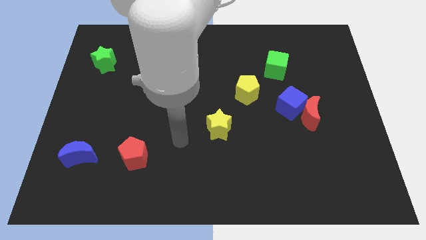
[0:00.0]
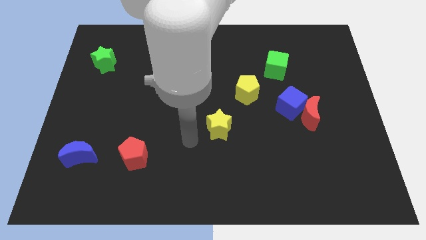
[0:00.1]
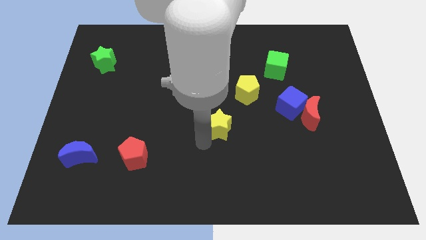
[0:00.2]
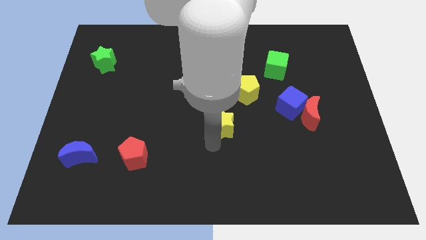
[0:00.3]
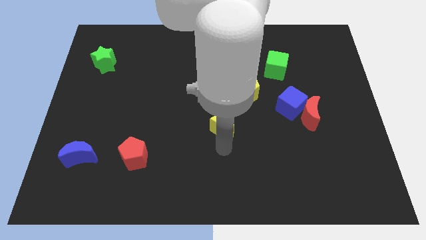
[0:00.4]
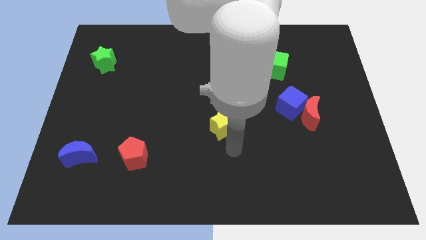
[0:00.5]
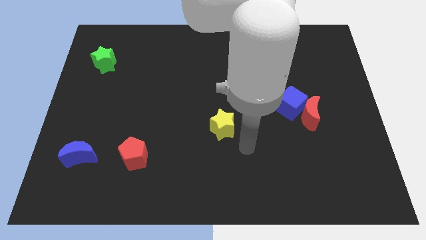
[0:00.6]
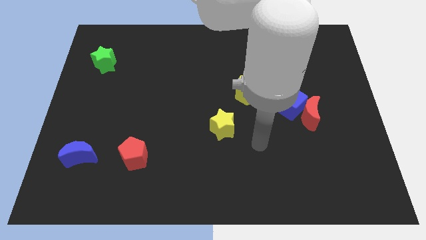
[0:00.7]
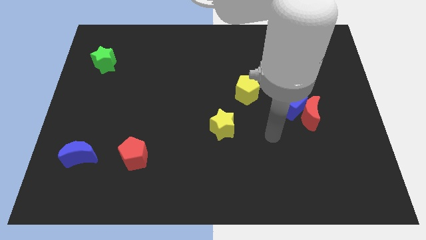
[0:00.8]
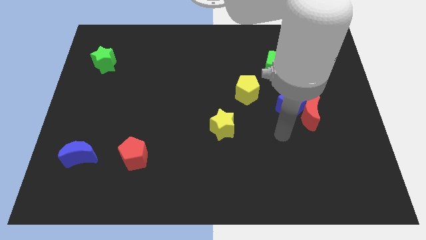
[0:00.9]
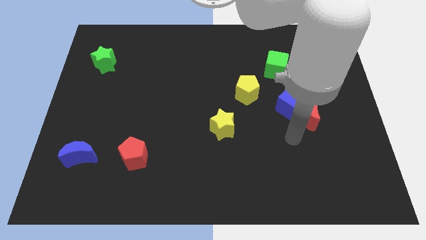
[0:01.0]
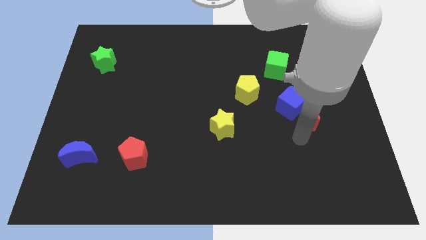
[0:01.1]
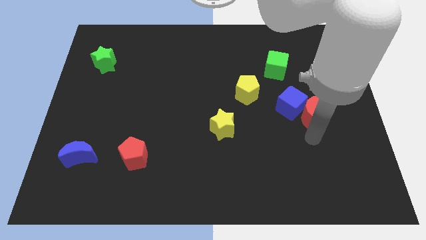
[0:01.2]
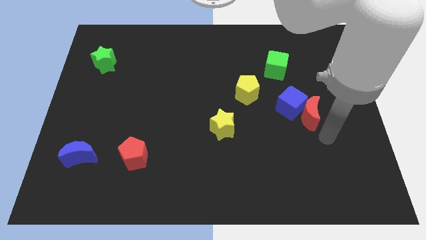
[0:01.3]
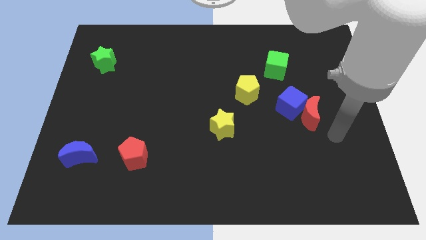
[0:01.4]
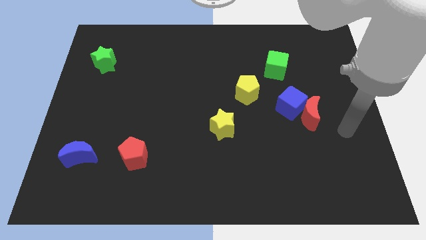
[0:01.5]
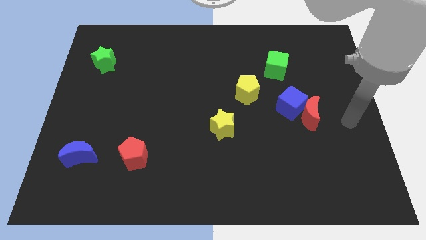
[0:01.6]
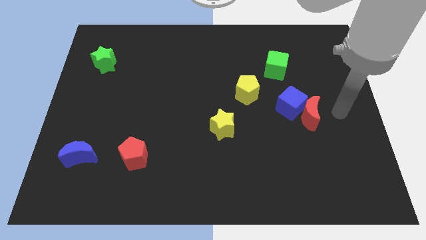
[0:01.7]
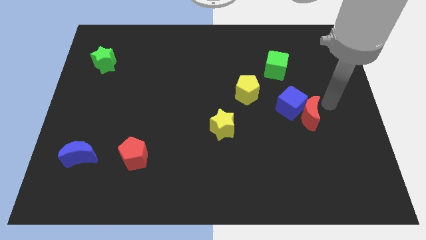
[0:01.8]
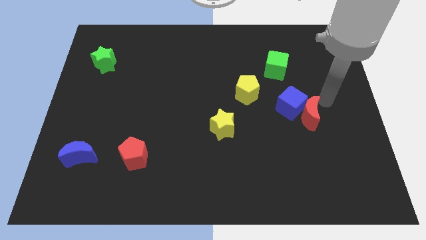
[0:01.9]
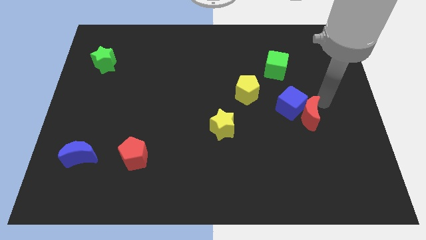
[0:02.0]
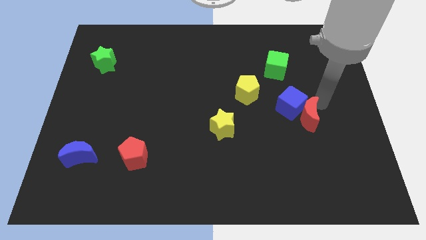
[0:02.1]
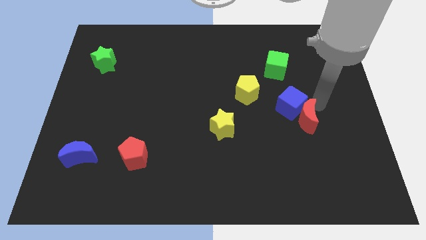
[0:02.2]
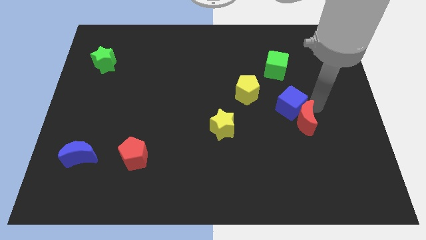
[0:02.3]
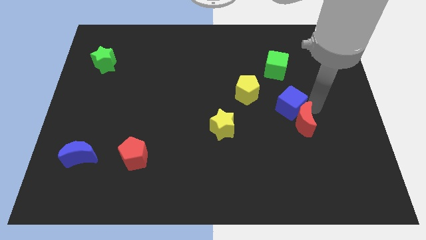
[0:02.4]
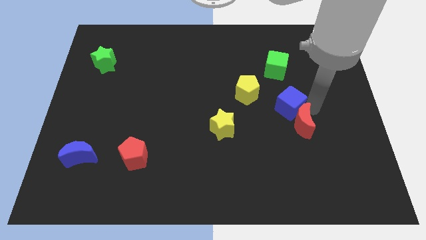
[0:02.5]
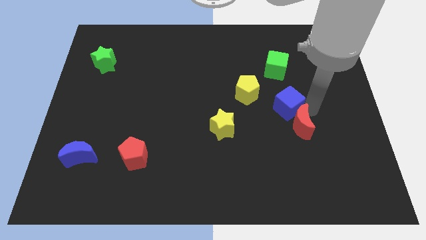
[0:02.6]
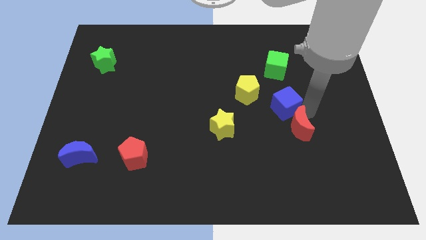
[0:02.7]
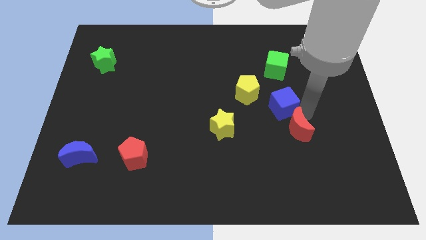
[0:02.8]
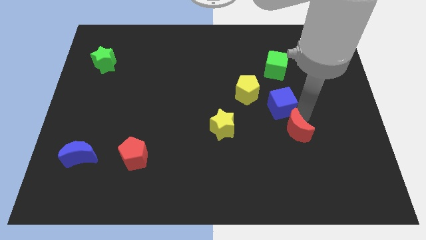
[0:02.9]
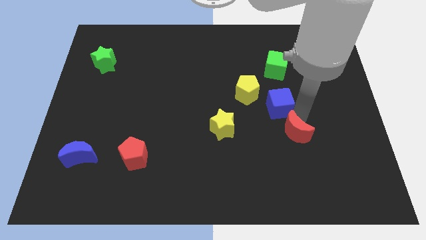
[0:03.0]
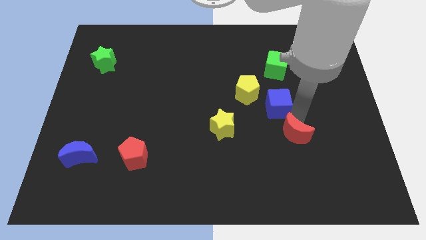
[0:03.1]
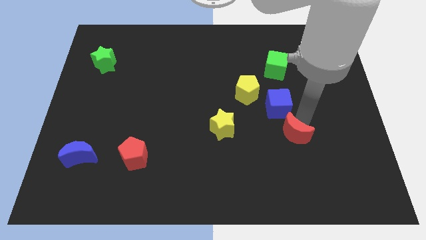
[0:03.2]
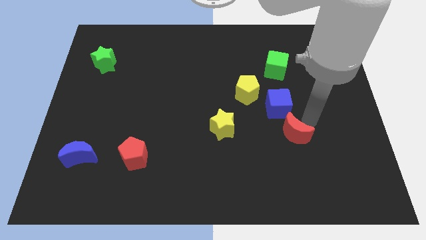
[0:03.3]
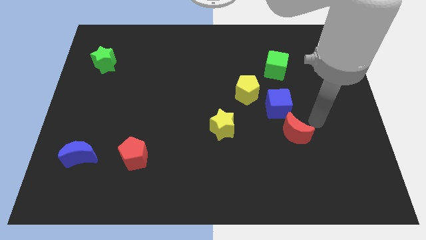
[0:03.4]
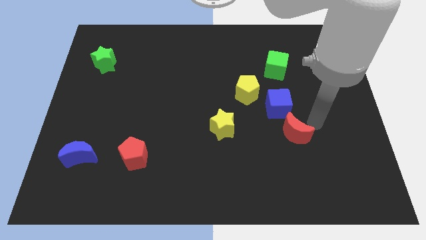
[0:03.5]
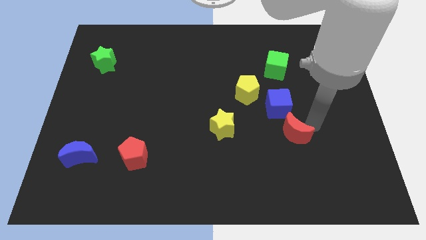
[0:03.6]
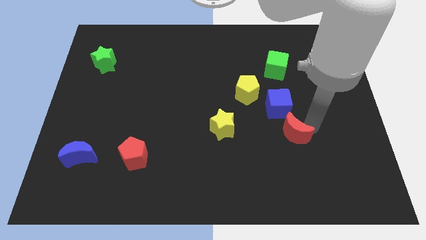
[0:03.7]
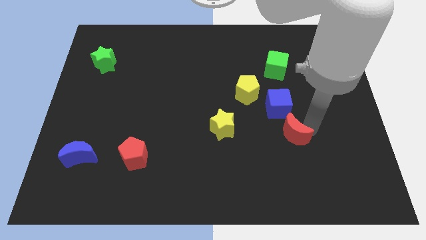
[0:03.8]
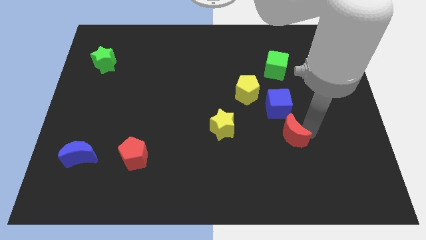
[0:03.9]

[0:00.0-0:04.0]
slide the red moon down and then left a bit

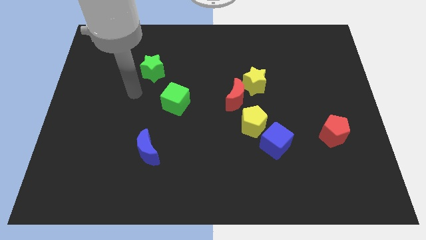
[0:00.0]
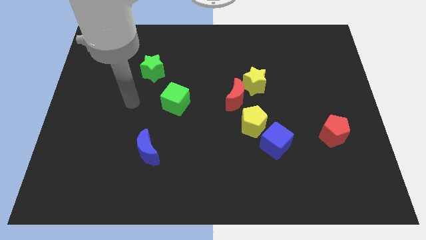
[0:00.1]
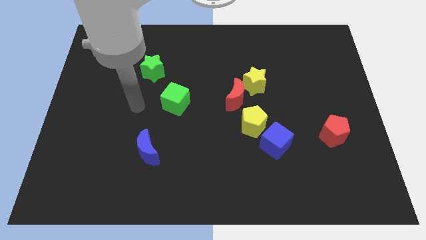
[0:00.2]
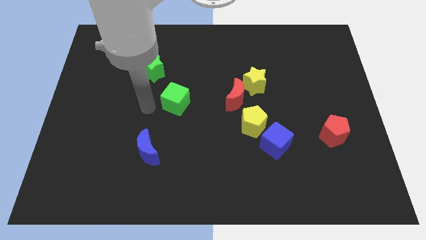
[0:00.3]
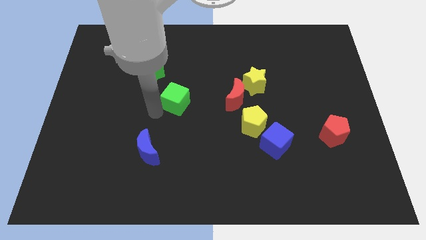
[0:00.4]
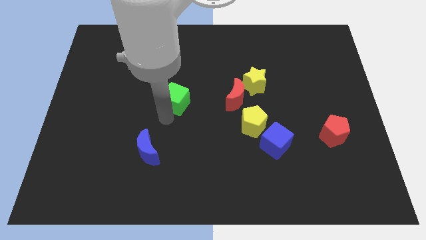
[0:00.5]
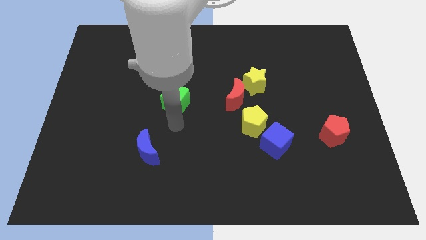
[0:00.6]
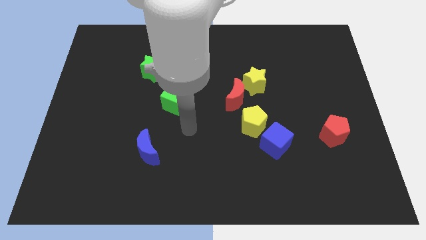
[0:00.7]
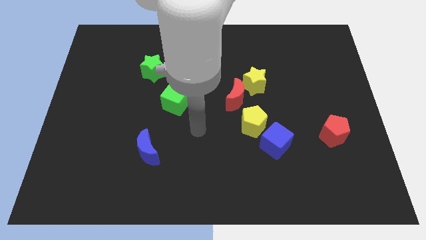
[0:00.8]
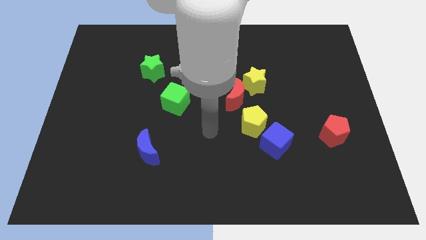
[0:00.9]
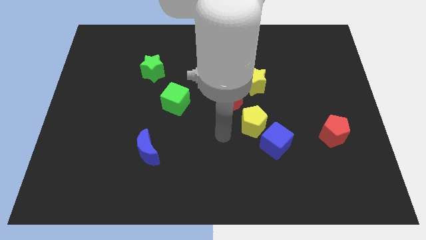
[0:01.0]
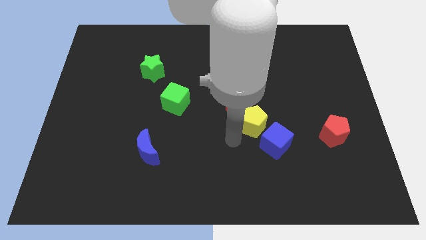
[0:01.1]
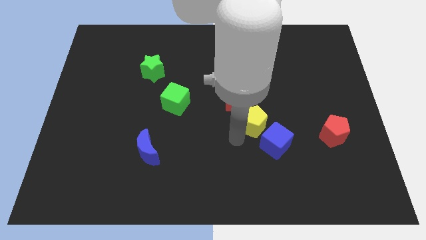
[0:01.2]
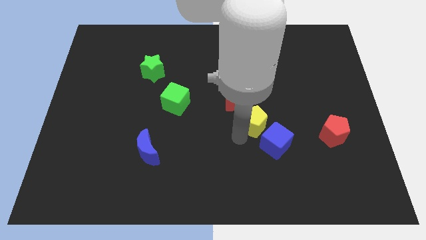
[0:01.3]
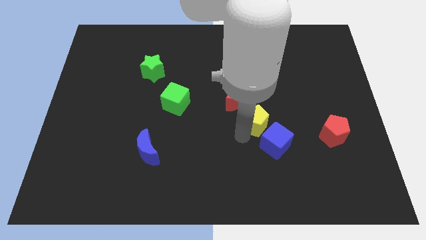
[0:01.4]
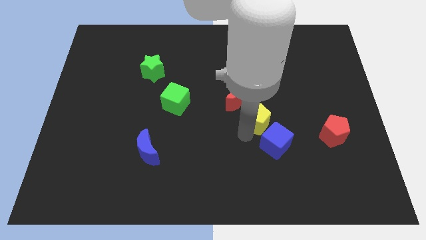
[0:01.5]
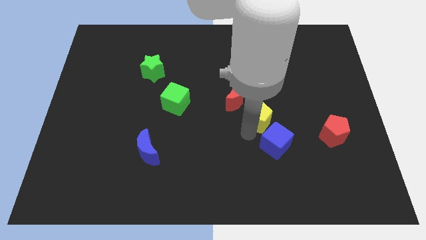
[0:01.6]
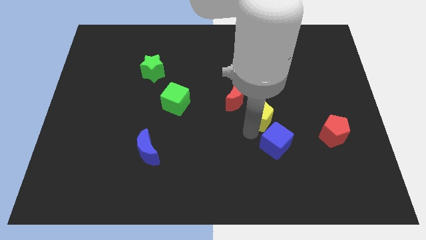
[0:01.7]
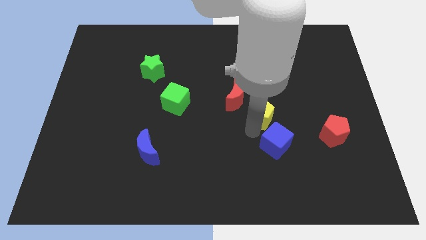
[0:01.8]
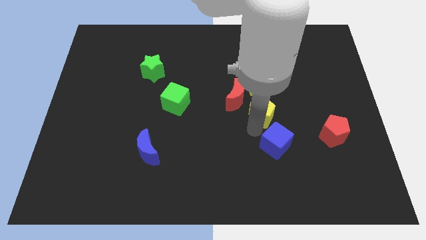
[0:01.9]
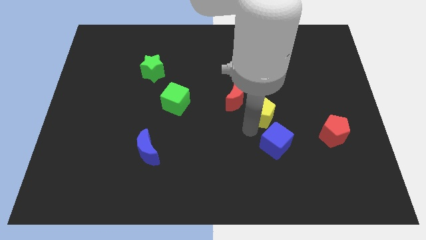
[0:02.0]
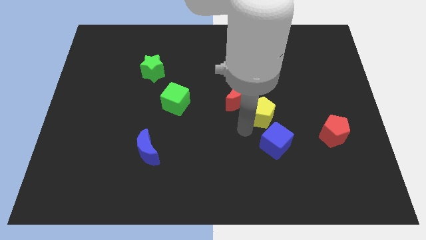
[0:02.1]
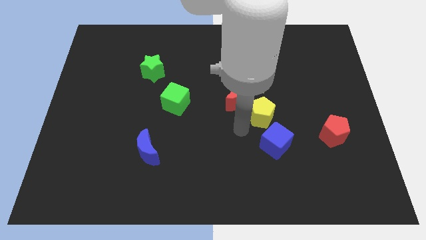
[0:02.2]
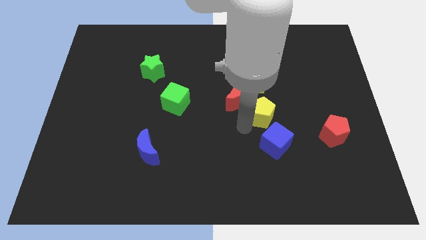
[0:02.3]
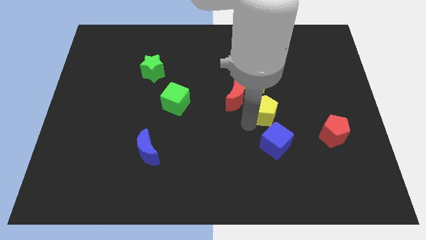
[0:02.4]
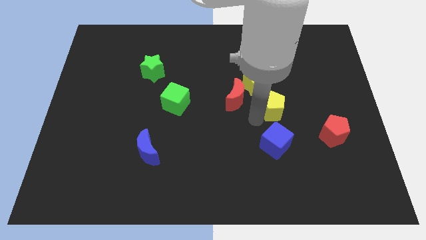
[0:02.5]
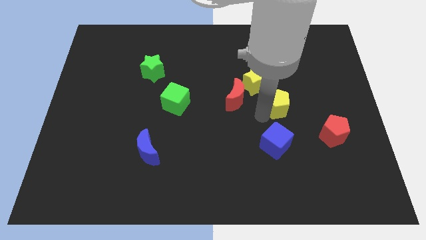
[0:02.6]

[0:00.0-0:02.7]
slightly slide the yellow pentagon upwards and right diagonally

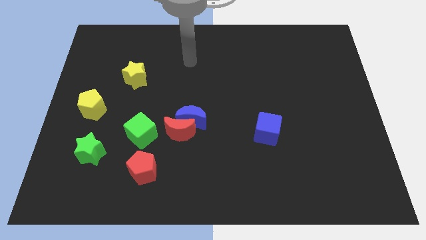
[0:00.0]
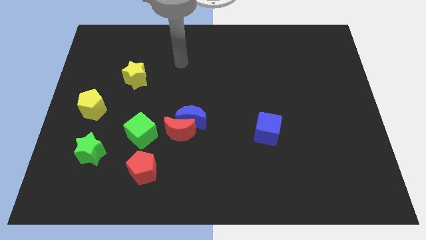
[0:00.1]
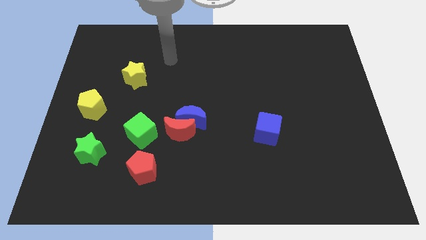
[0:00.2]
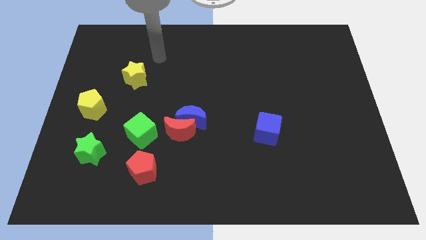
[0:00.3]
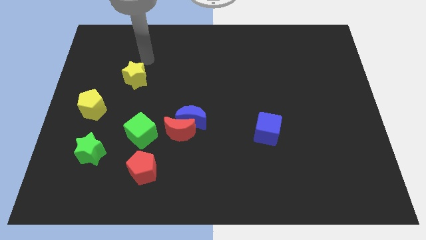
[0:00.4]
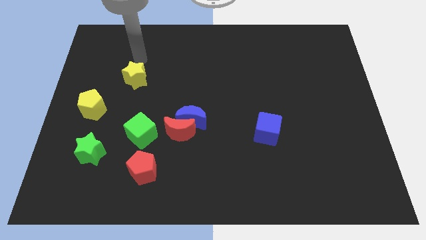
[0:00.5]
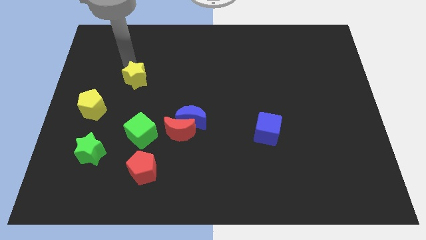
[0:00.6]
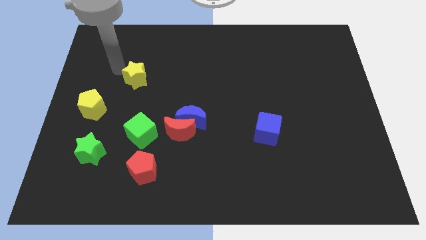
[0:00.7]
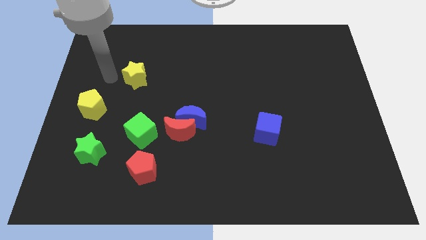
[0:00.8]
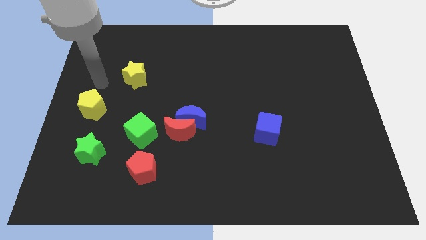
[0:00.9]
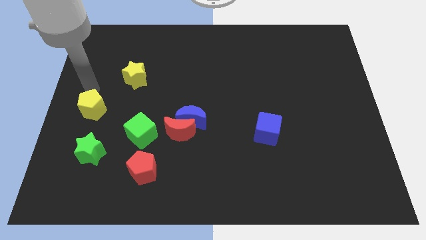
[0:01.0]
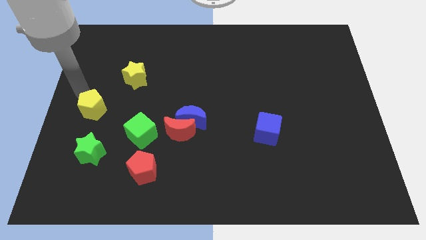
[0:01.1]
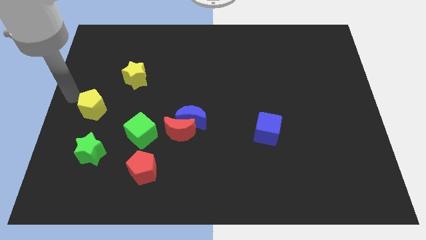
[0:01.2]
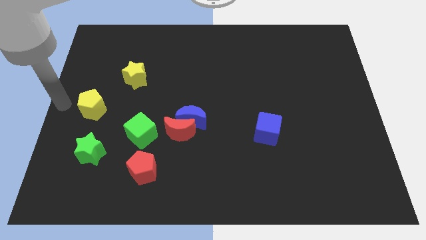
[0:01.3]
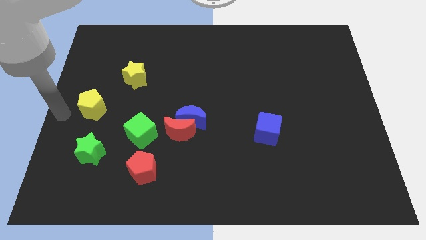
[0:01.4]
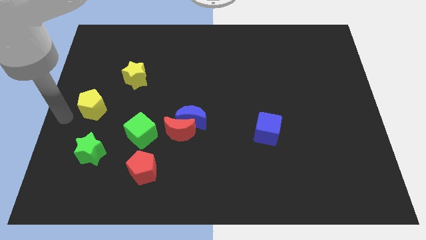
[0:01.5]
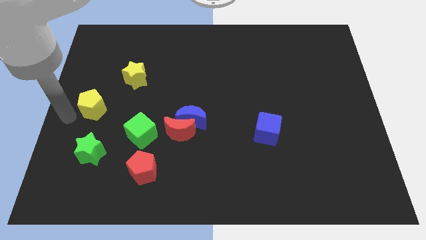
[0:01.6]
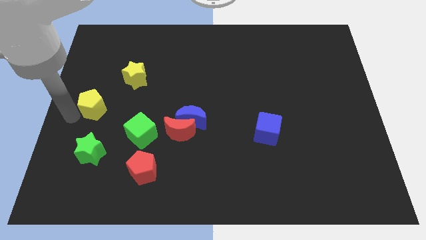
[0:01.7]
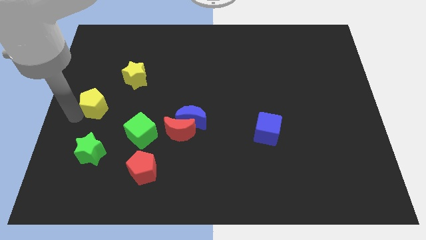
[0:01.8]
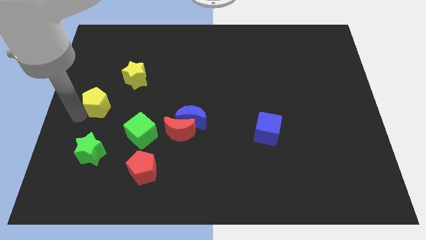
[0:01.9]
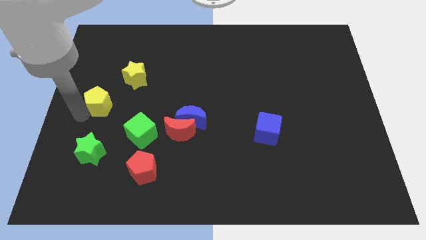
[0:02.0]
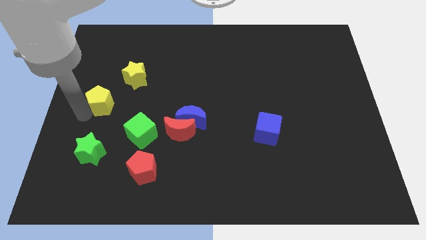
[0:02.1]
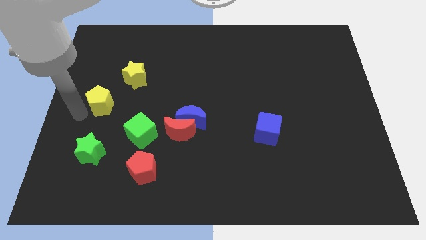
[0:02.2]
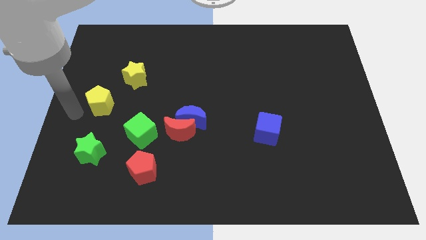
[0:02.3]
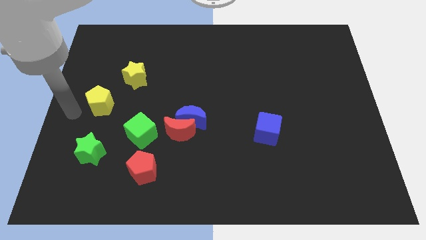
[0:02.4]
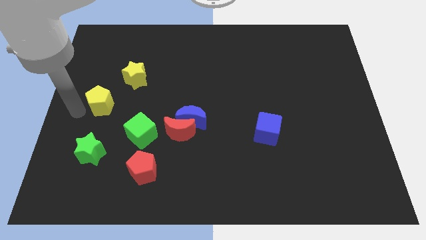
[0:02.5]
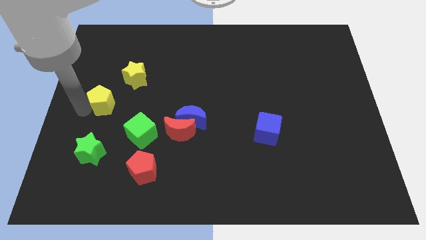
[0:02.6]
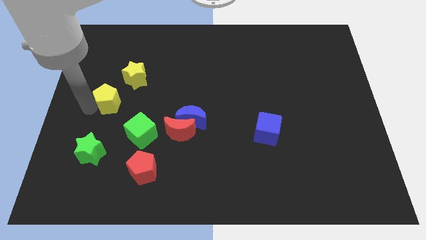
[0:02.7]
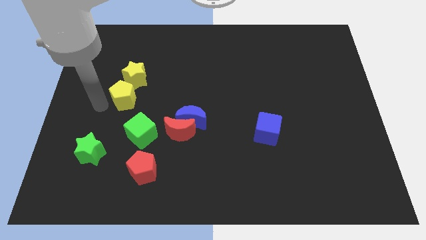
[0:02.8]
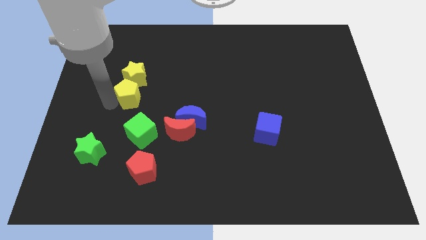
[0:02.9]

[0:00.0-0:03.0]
move the yellow pentagon somewhat up and to the right diagonally
